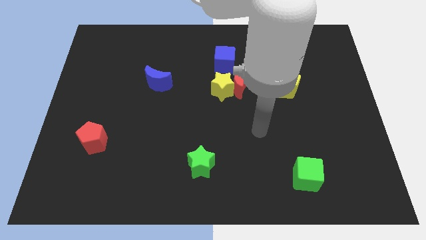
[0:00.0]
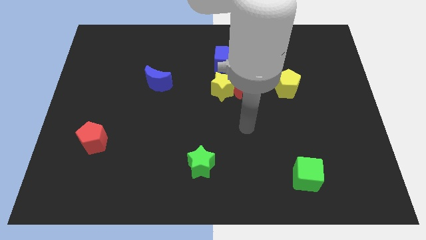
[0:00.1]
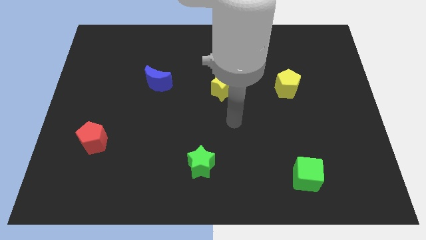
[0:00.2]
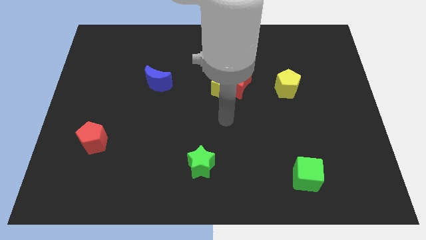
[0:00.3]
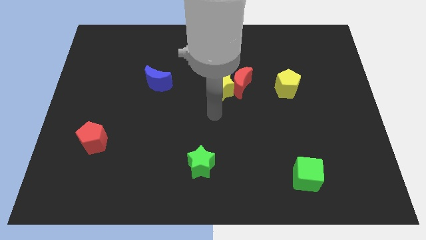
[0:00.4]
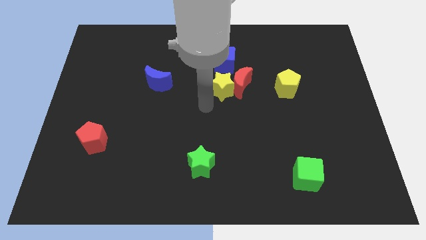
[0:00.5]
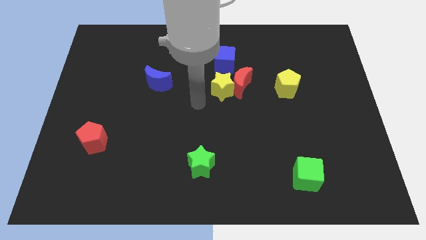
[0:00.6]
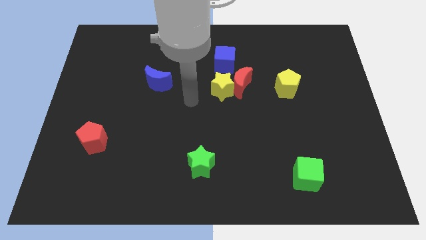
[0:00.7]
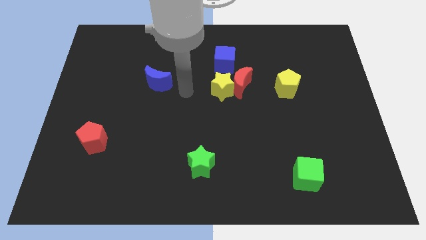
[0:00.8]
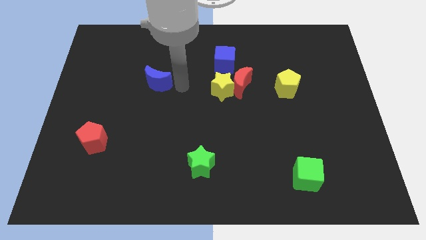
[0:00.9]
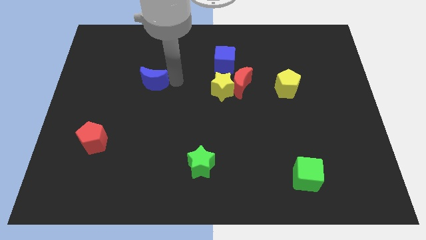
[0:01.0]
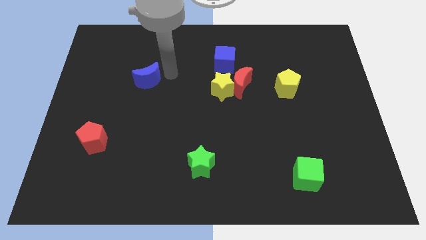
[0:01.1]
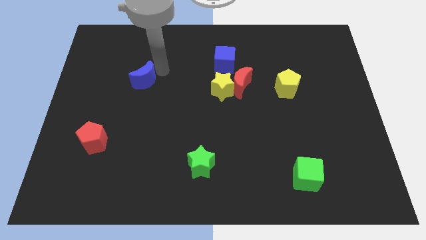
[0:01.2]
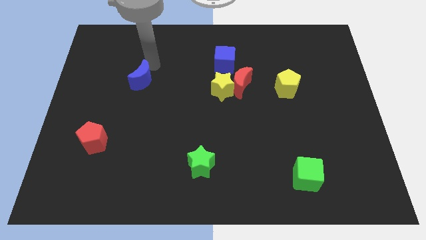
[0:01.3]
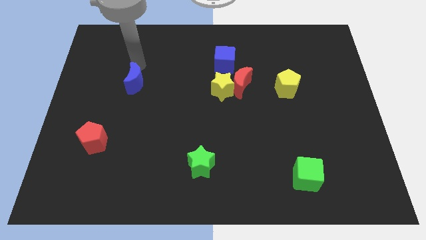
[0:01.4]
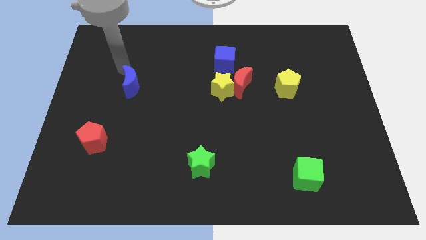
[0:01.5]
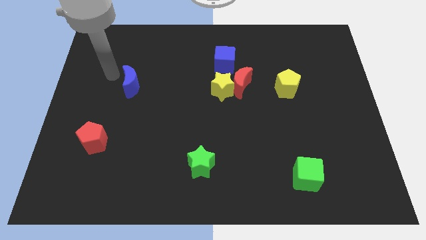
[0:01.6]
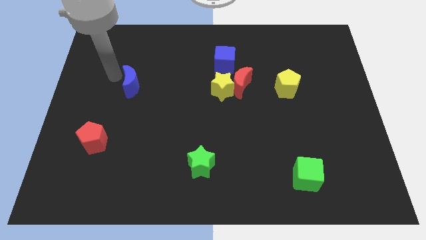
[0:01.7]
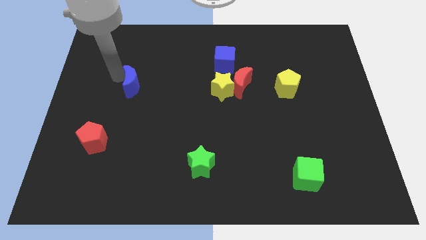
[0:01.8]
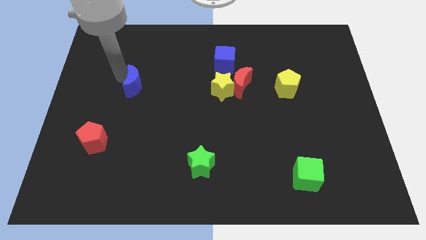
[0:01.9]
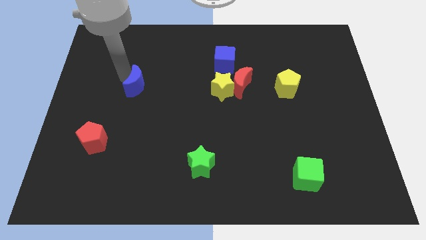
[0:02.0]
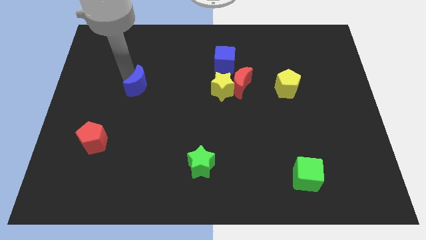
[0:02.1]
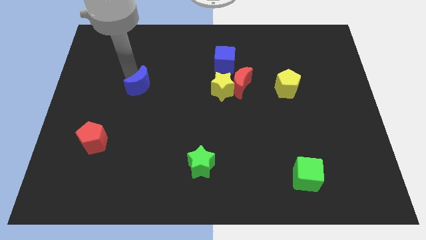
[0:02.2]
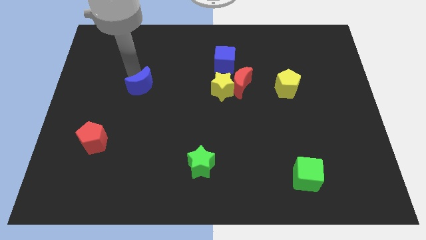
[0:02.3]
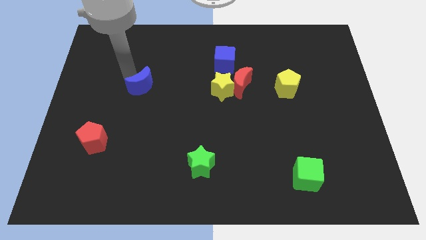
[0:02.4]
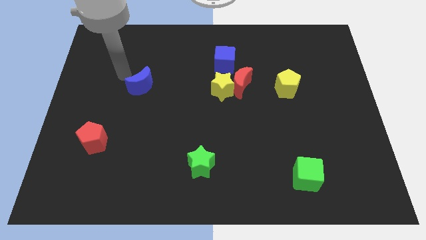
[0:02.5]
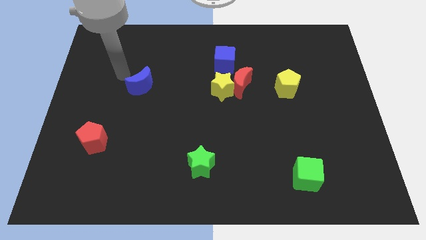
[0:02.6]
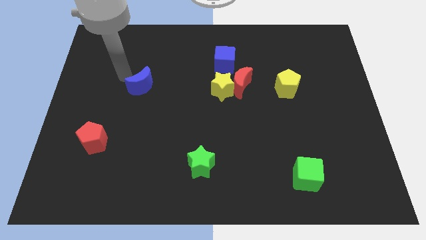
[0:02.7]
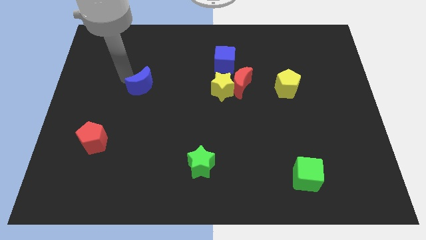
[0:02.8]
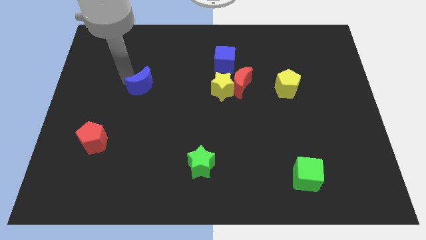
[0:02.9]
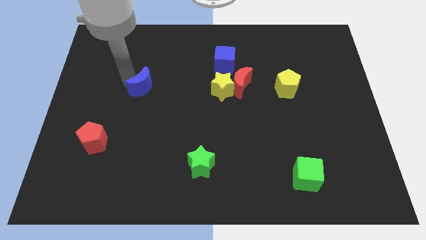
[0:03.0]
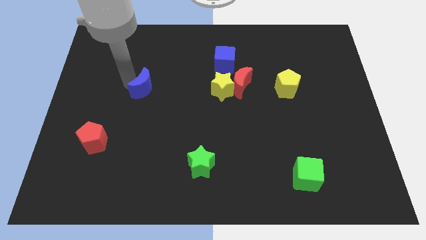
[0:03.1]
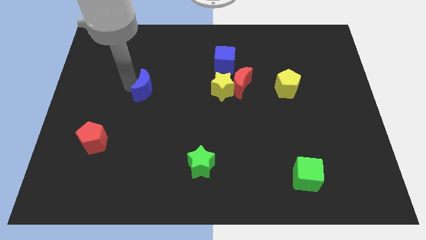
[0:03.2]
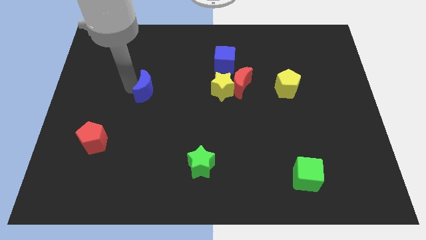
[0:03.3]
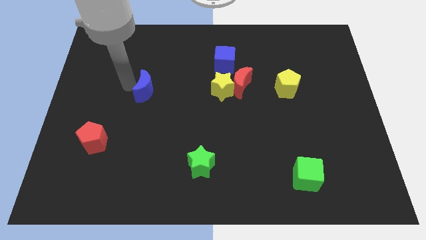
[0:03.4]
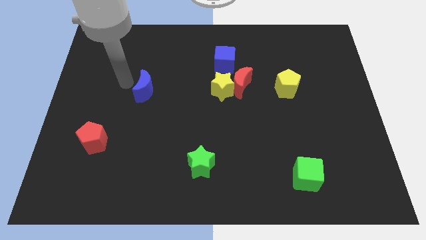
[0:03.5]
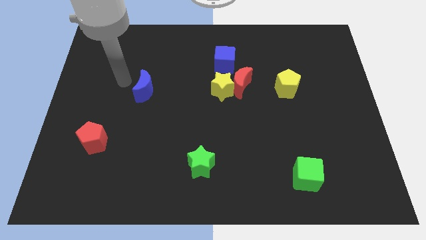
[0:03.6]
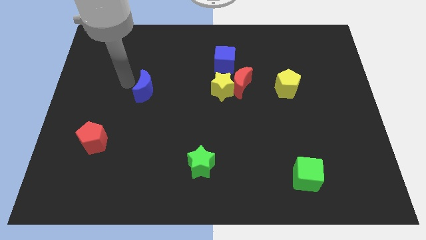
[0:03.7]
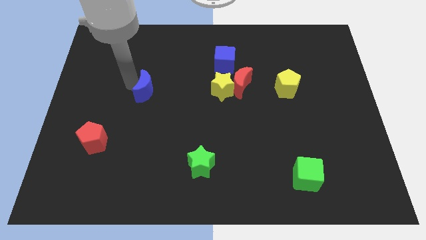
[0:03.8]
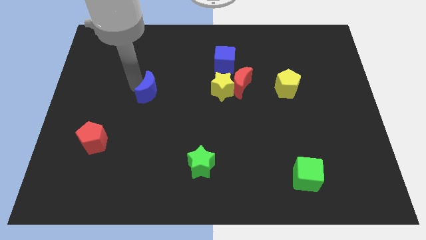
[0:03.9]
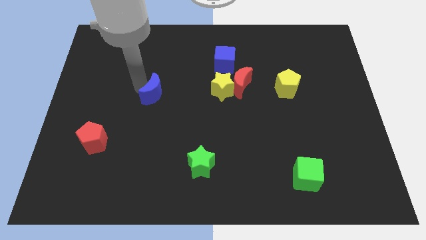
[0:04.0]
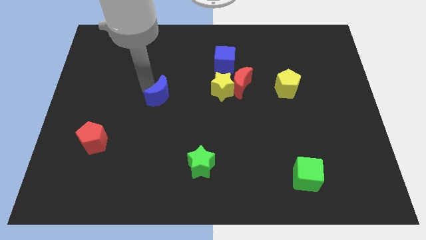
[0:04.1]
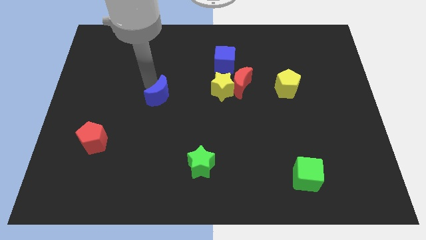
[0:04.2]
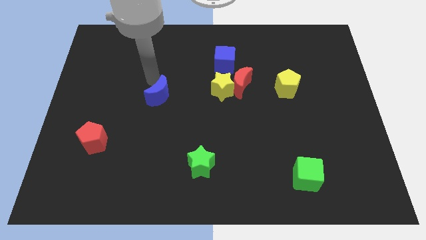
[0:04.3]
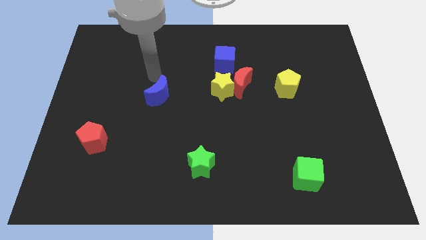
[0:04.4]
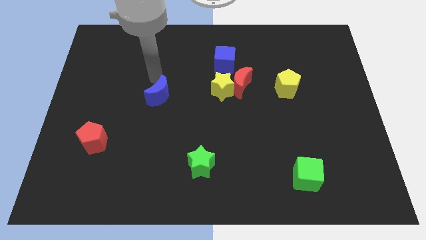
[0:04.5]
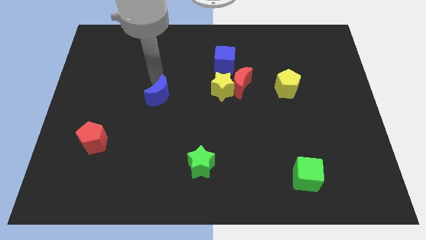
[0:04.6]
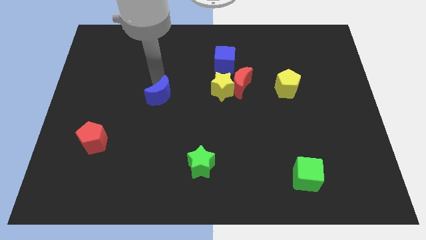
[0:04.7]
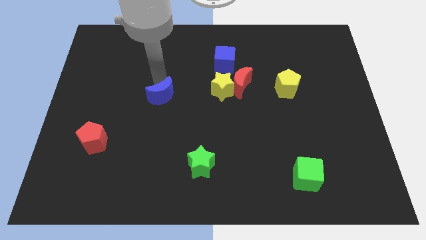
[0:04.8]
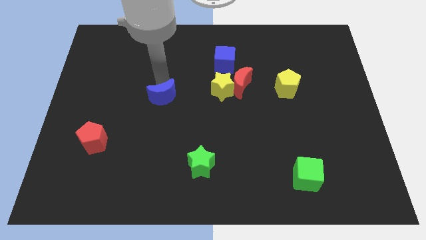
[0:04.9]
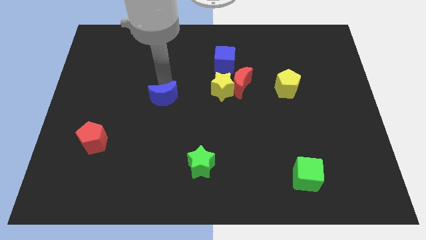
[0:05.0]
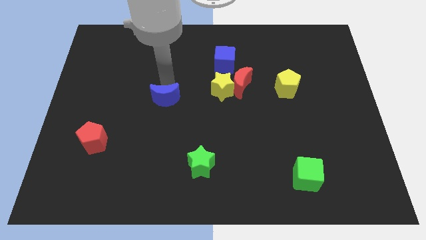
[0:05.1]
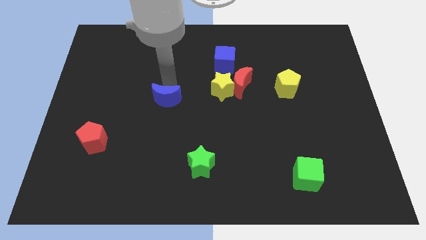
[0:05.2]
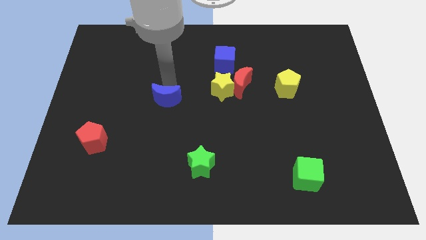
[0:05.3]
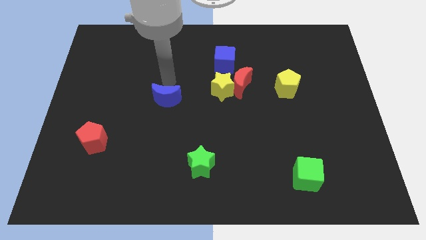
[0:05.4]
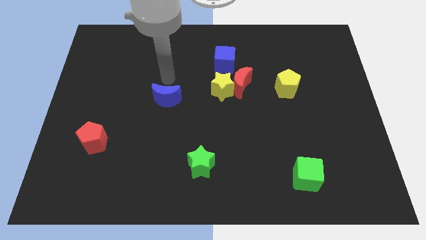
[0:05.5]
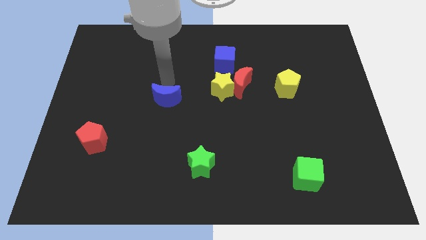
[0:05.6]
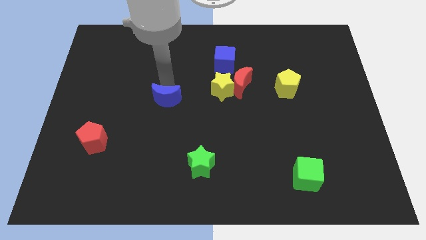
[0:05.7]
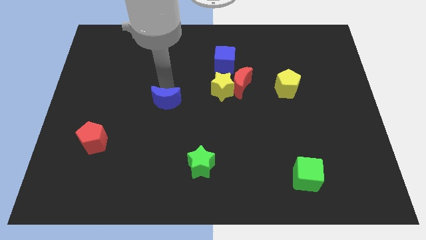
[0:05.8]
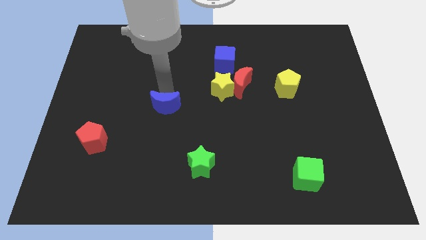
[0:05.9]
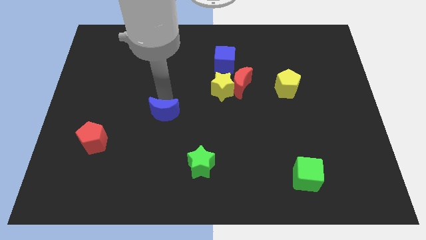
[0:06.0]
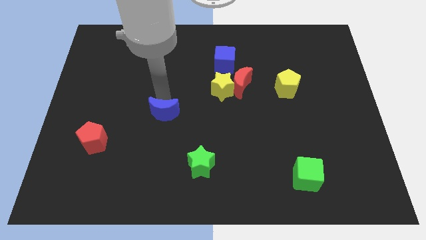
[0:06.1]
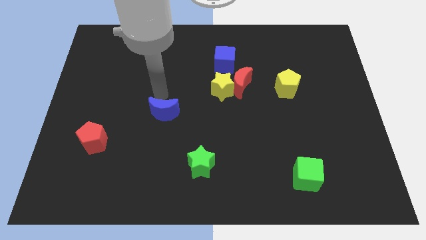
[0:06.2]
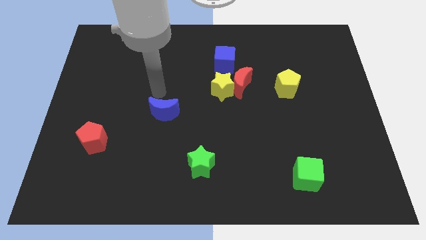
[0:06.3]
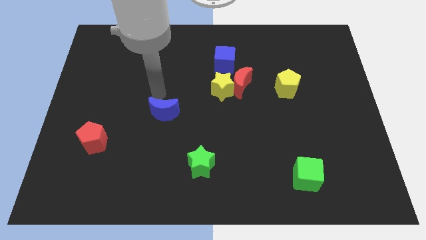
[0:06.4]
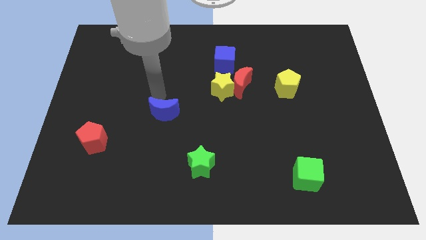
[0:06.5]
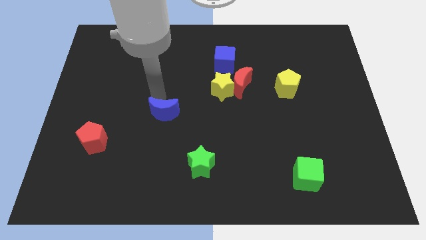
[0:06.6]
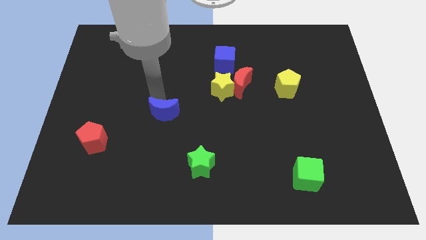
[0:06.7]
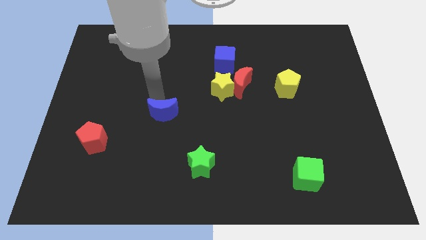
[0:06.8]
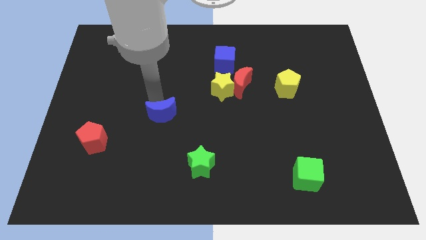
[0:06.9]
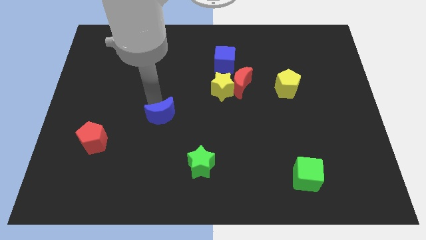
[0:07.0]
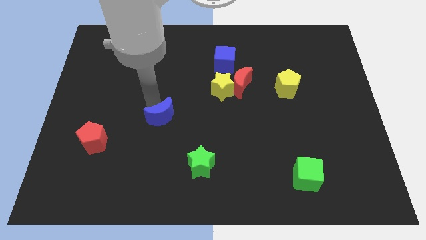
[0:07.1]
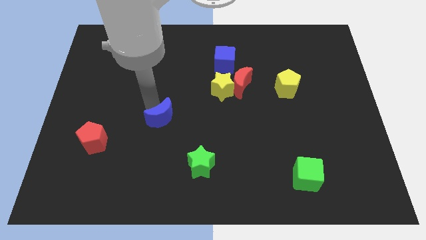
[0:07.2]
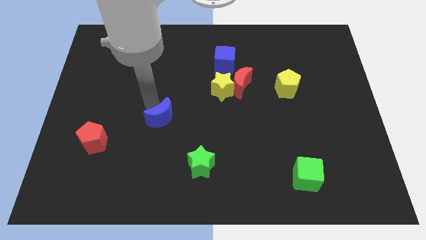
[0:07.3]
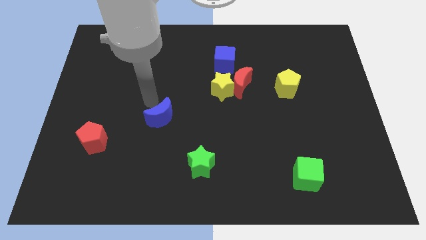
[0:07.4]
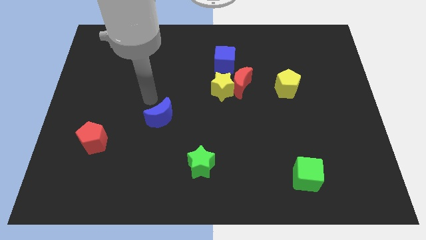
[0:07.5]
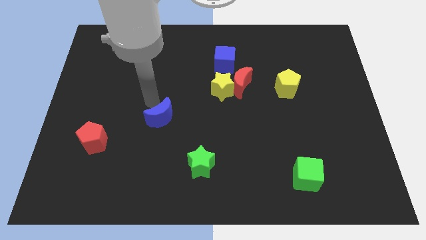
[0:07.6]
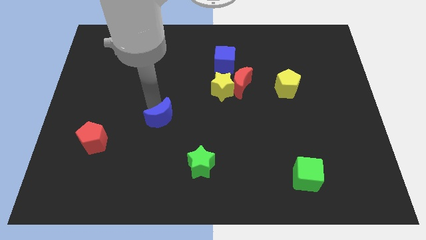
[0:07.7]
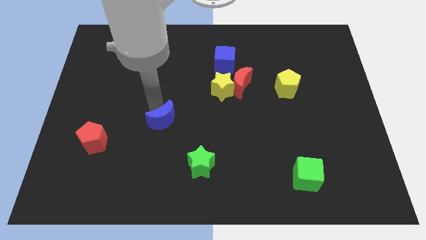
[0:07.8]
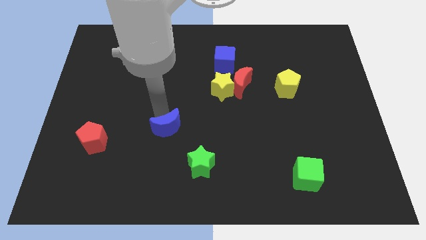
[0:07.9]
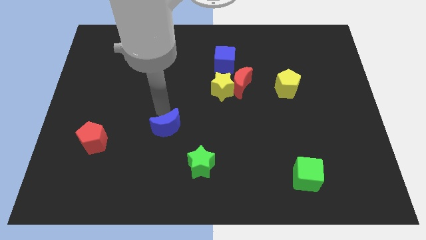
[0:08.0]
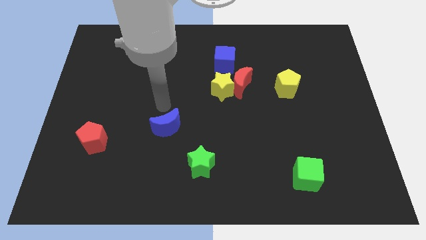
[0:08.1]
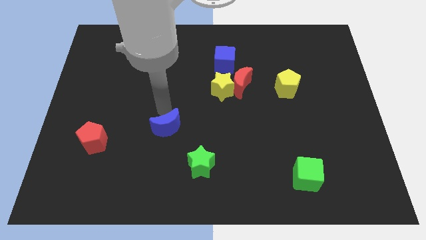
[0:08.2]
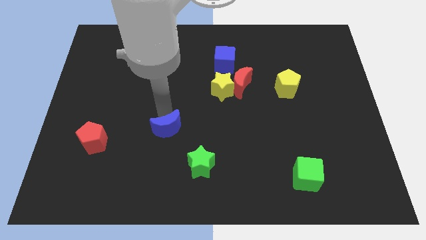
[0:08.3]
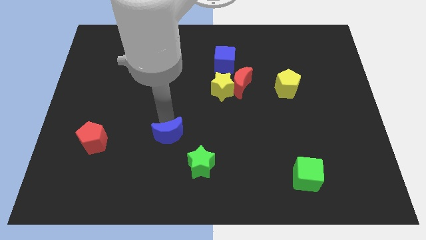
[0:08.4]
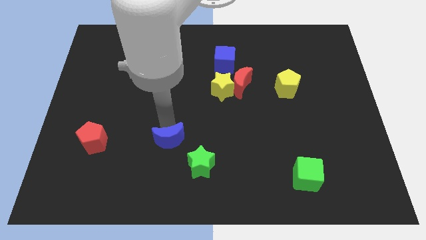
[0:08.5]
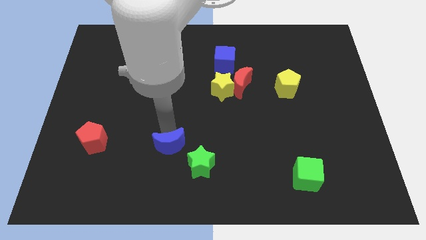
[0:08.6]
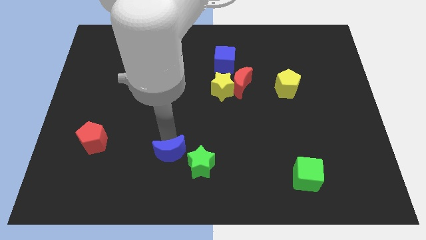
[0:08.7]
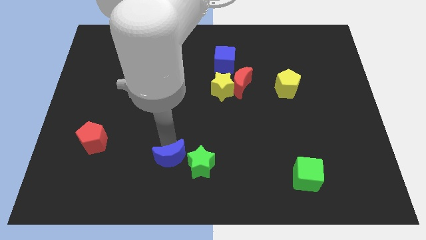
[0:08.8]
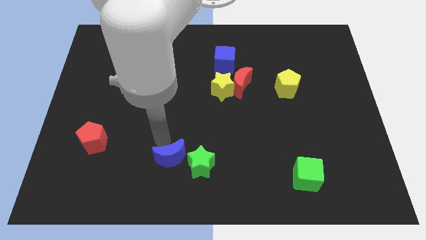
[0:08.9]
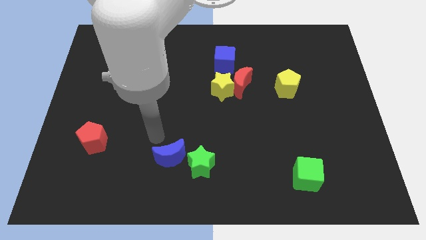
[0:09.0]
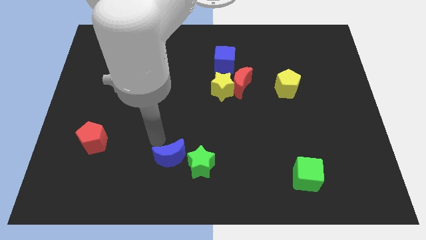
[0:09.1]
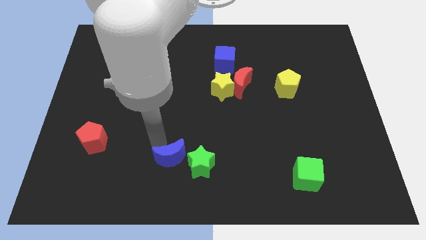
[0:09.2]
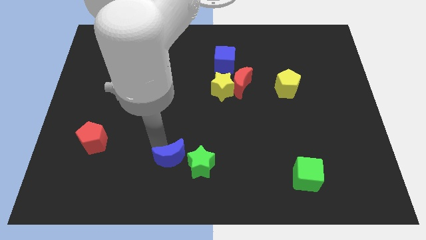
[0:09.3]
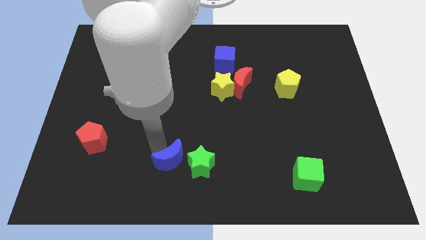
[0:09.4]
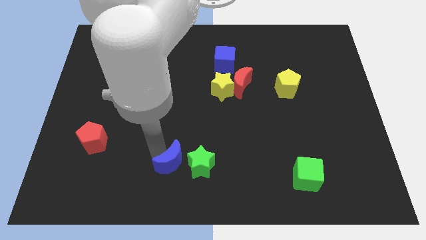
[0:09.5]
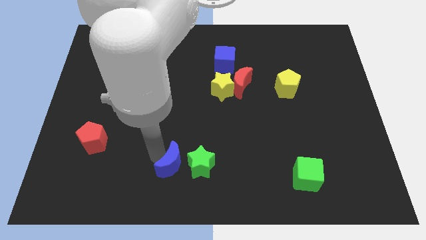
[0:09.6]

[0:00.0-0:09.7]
move the blue moon to the bottom side
